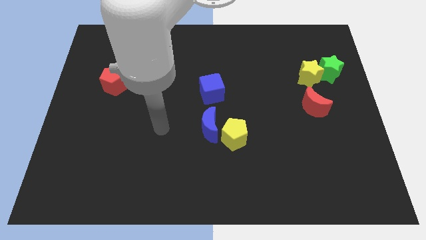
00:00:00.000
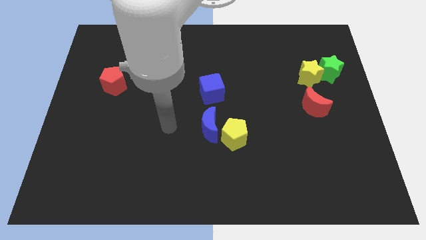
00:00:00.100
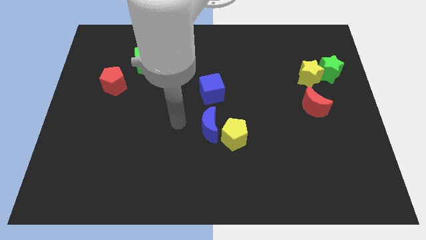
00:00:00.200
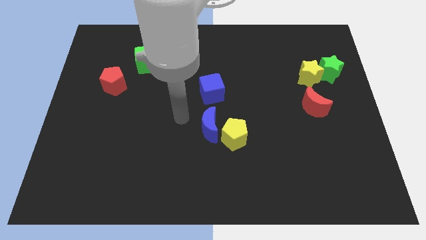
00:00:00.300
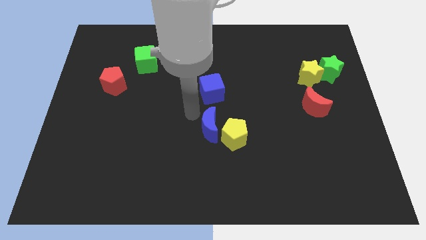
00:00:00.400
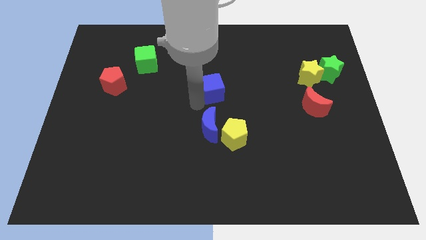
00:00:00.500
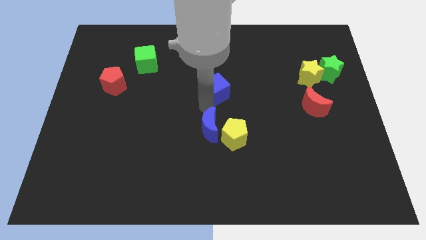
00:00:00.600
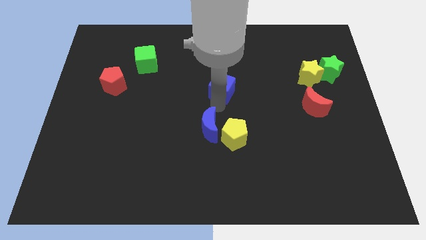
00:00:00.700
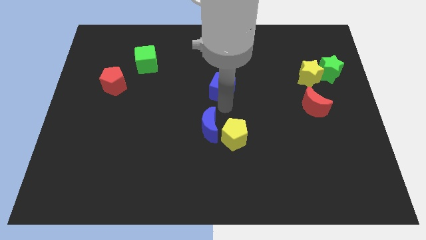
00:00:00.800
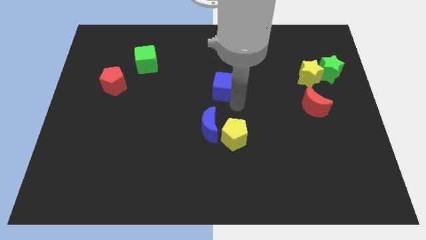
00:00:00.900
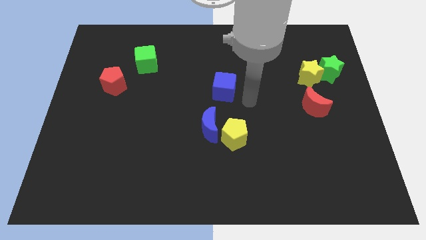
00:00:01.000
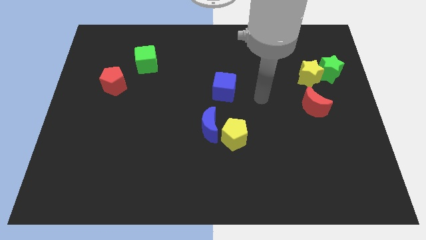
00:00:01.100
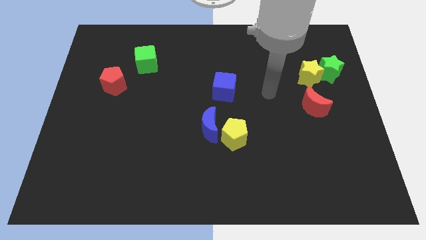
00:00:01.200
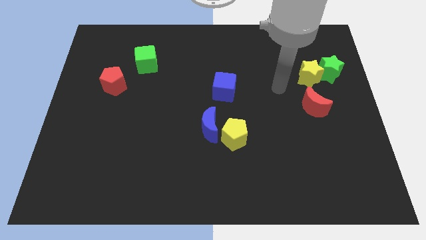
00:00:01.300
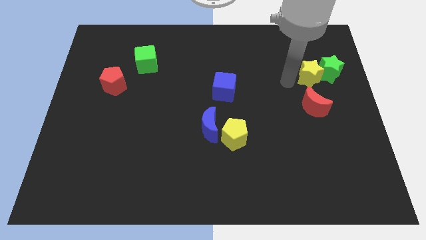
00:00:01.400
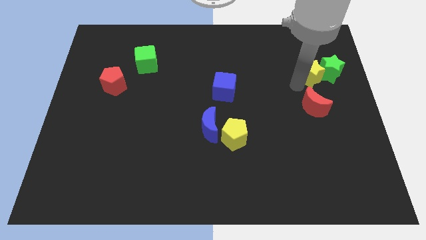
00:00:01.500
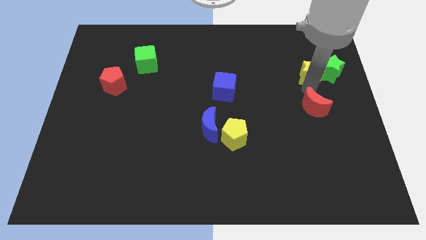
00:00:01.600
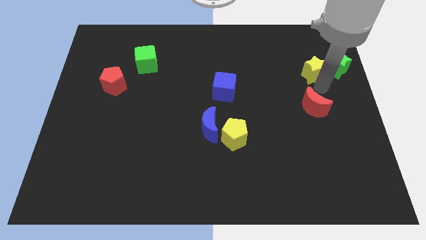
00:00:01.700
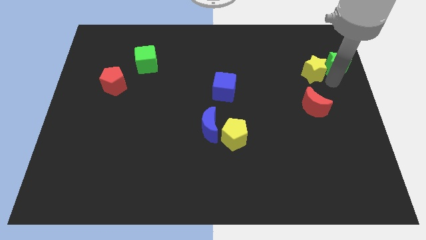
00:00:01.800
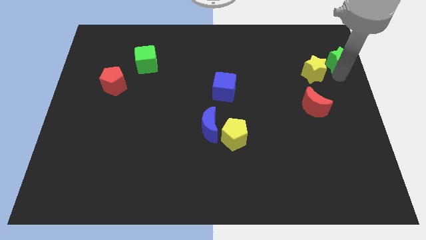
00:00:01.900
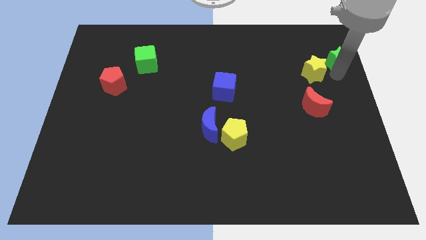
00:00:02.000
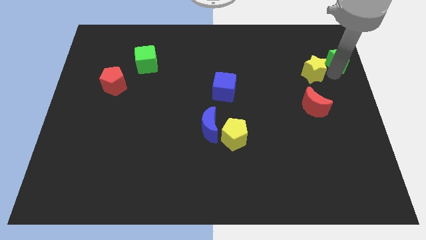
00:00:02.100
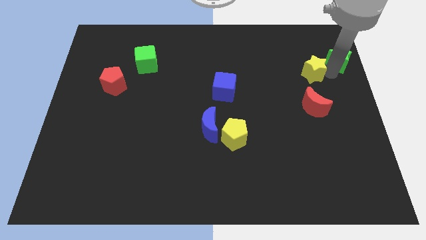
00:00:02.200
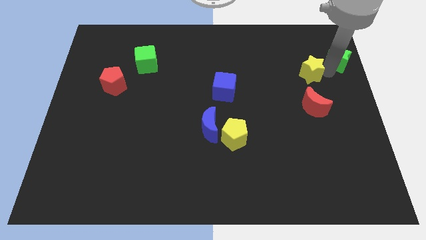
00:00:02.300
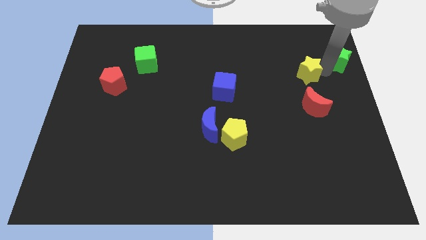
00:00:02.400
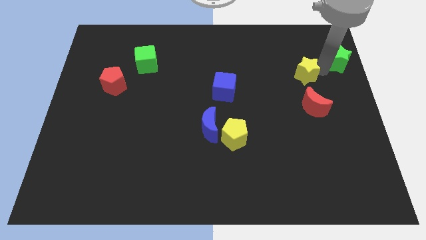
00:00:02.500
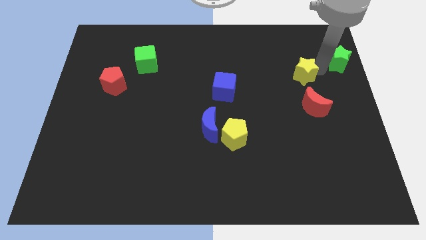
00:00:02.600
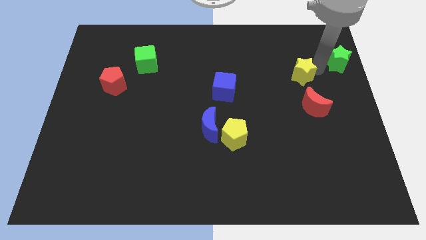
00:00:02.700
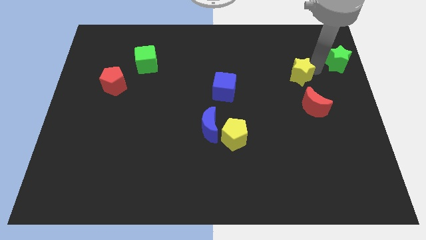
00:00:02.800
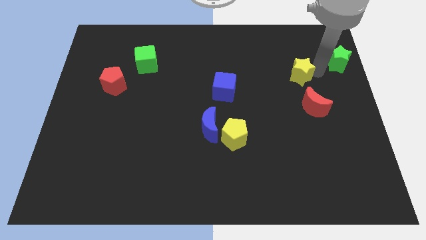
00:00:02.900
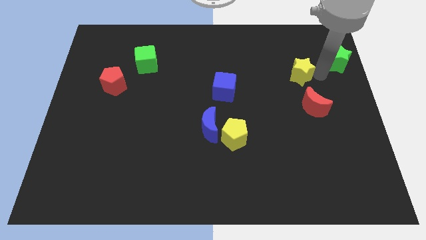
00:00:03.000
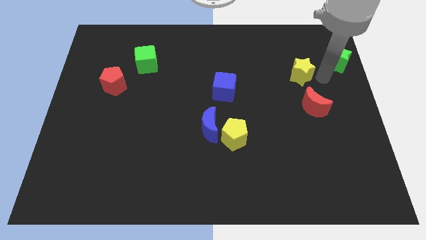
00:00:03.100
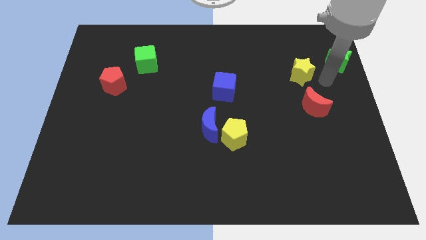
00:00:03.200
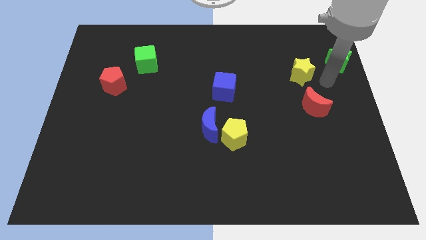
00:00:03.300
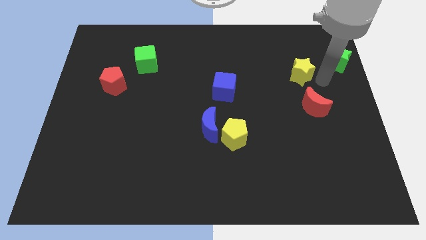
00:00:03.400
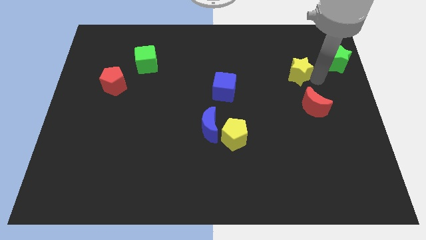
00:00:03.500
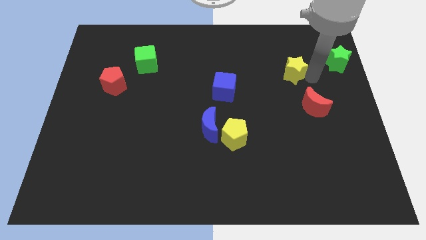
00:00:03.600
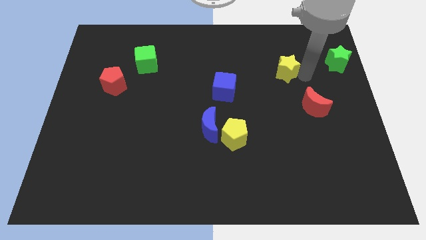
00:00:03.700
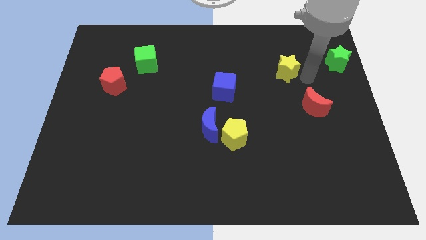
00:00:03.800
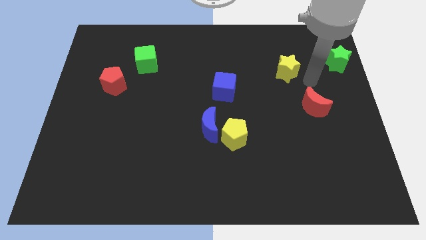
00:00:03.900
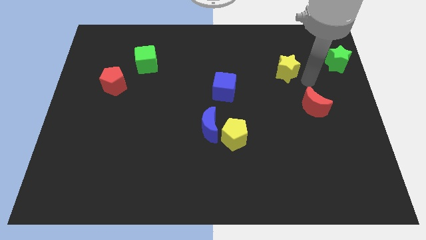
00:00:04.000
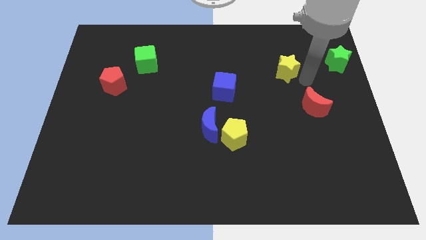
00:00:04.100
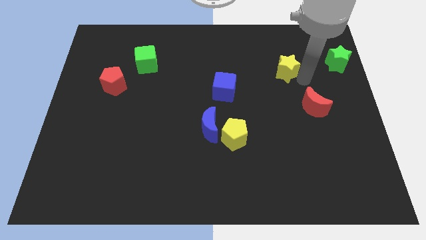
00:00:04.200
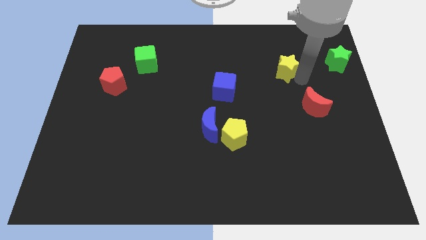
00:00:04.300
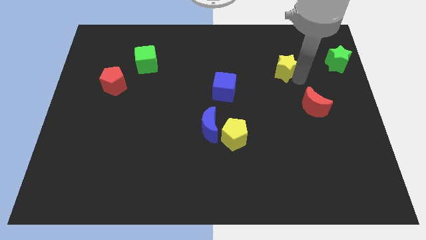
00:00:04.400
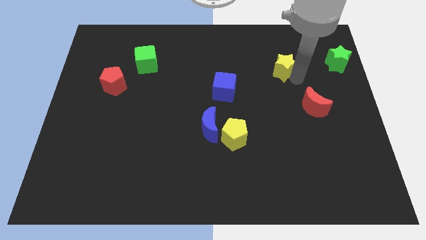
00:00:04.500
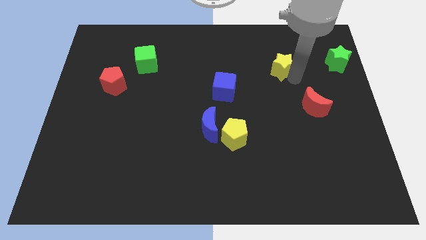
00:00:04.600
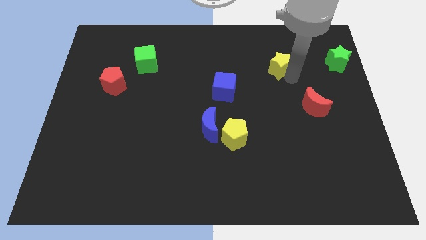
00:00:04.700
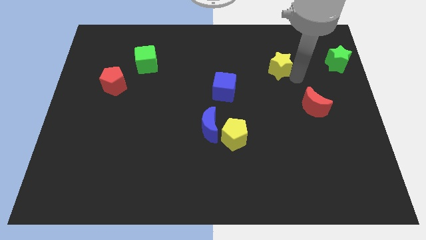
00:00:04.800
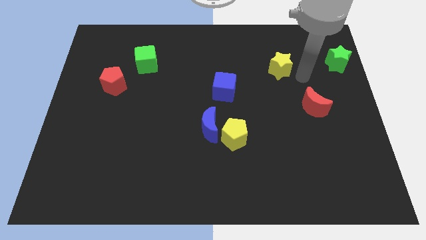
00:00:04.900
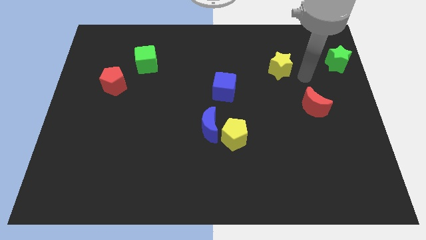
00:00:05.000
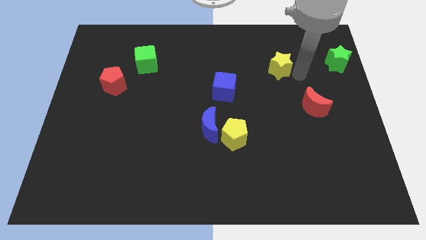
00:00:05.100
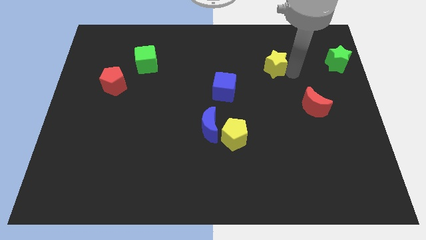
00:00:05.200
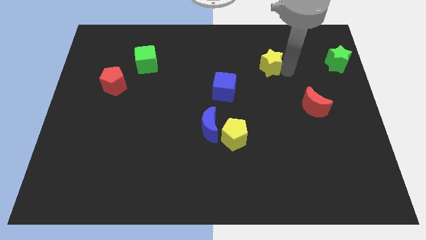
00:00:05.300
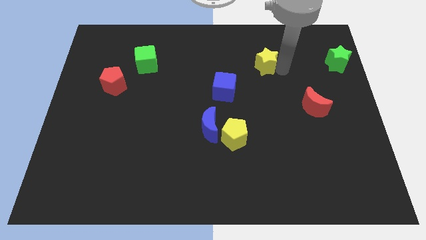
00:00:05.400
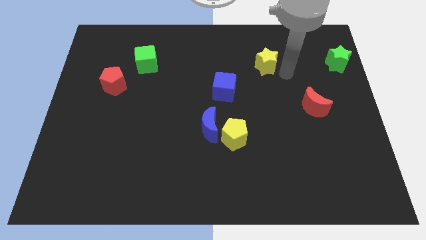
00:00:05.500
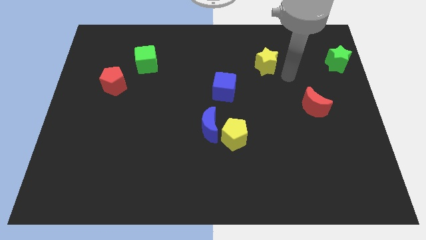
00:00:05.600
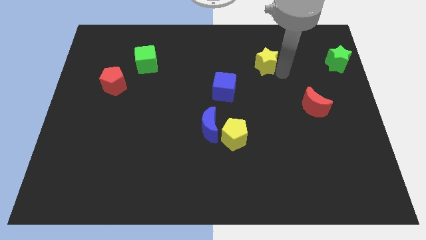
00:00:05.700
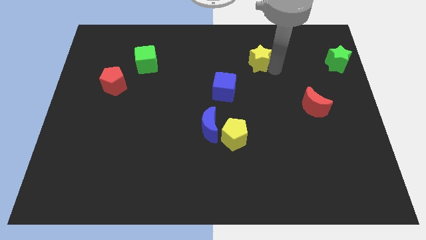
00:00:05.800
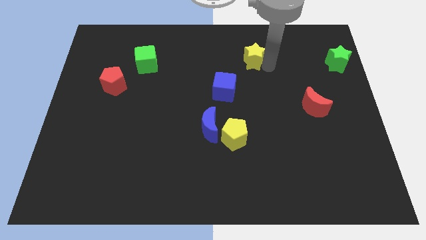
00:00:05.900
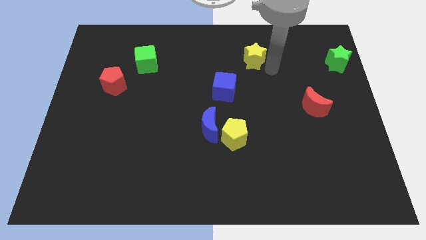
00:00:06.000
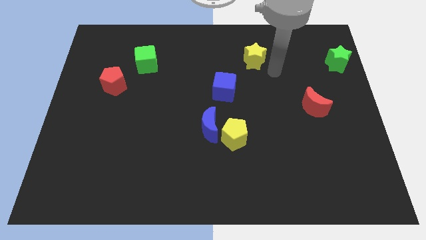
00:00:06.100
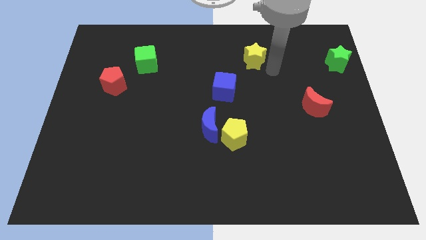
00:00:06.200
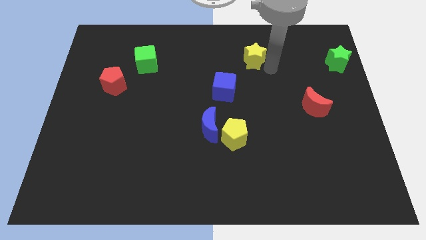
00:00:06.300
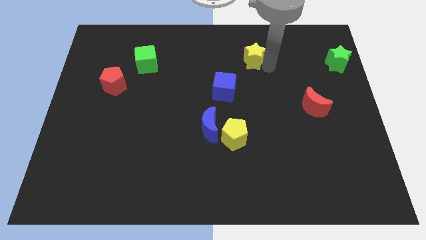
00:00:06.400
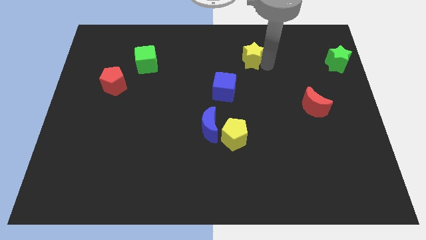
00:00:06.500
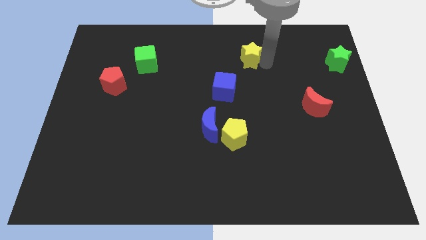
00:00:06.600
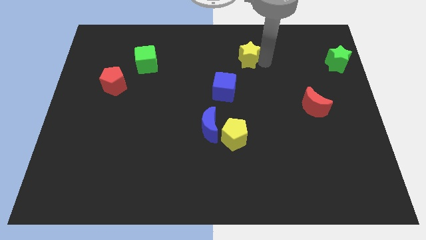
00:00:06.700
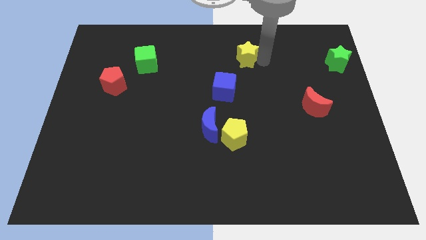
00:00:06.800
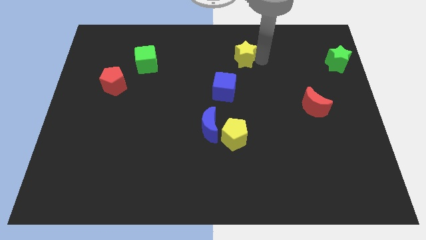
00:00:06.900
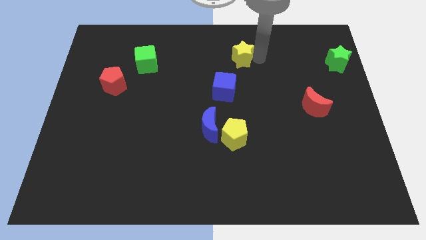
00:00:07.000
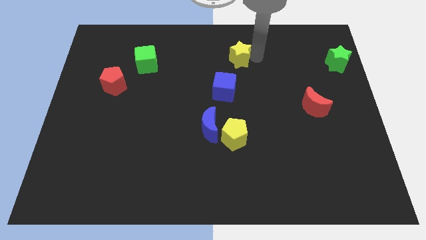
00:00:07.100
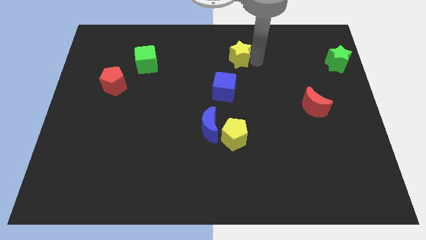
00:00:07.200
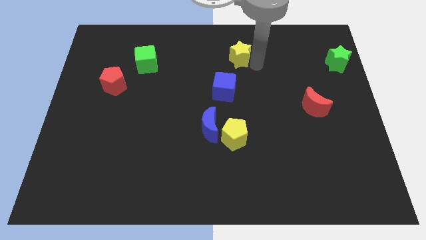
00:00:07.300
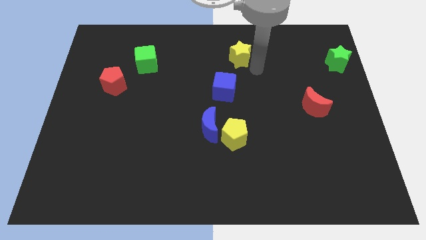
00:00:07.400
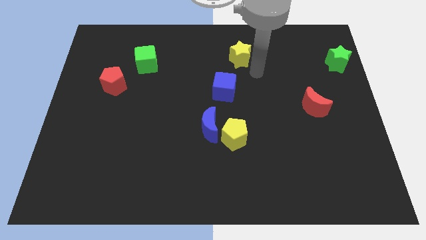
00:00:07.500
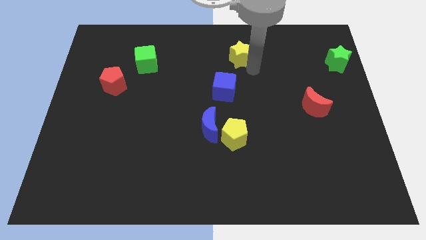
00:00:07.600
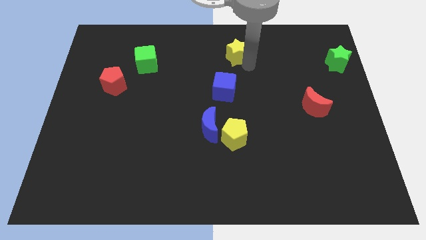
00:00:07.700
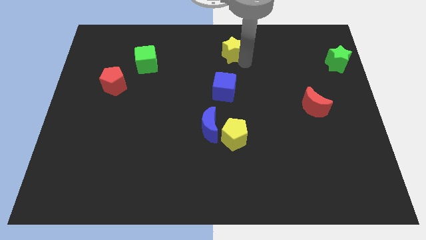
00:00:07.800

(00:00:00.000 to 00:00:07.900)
push the yellow star to the towards your base
